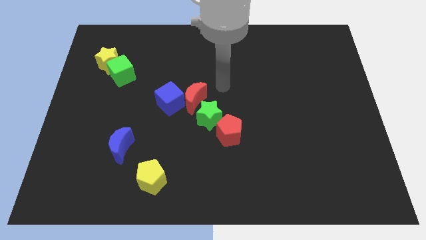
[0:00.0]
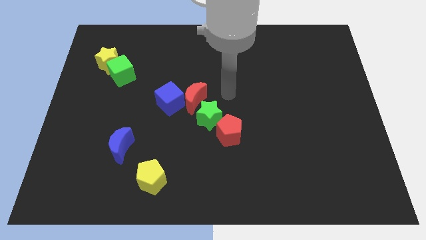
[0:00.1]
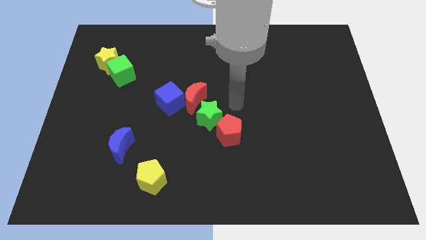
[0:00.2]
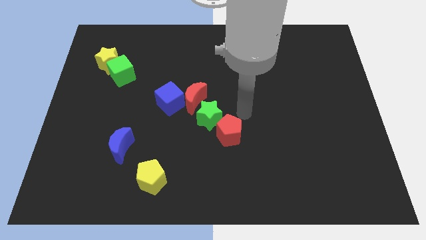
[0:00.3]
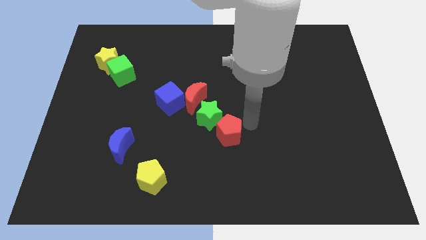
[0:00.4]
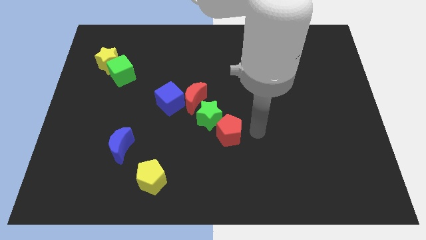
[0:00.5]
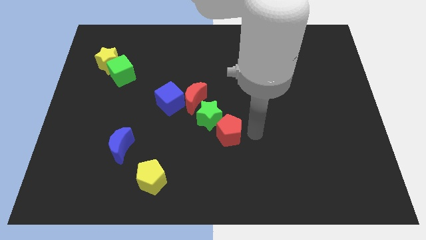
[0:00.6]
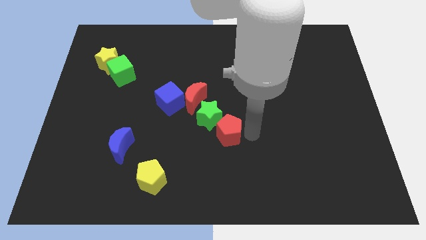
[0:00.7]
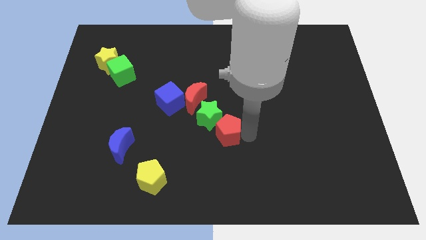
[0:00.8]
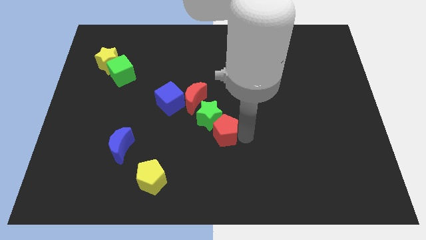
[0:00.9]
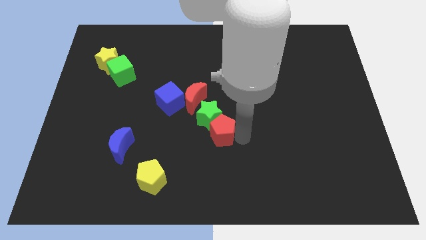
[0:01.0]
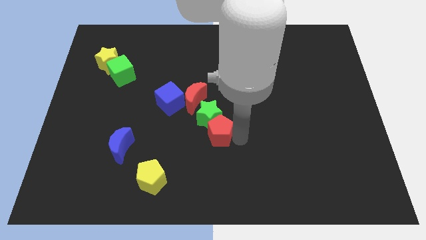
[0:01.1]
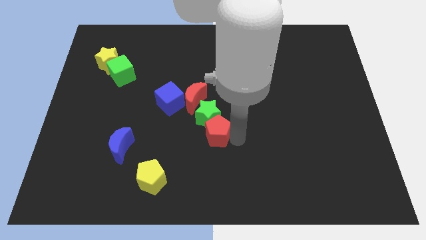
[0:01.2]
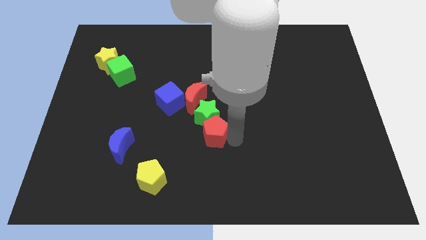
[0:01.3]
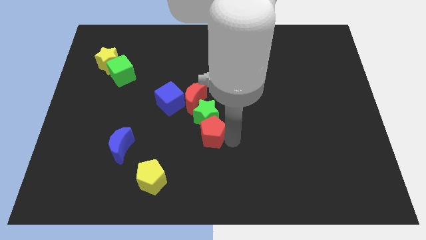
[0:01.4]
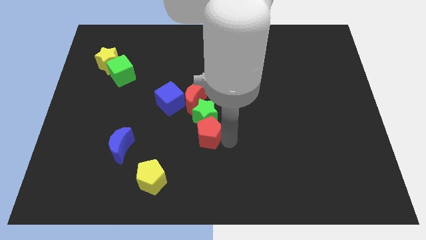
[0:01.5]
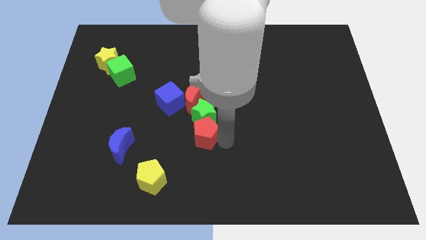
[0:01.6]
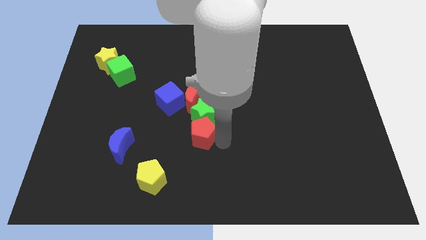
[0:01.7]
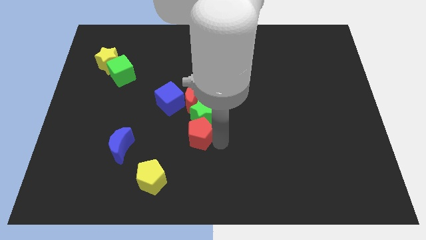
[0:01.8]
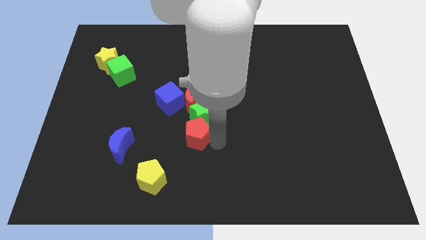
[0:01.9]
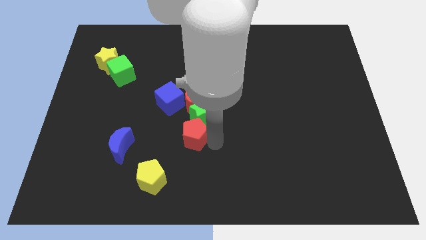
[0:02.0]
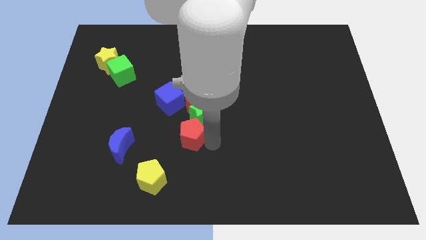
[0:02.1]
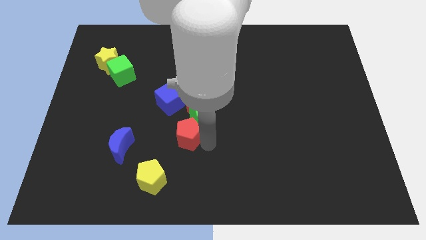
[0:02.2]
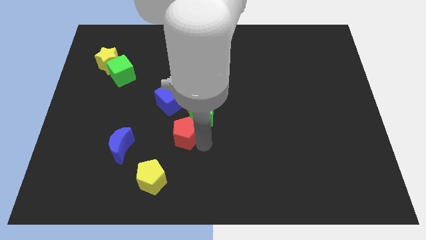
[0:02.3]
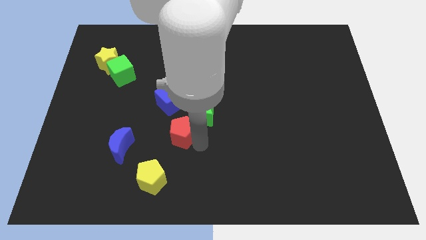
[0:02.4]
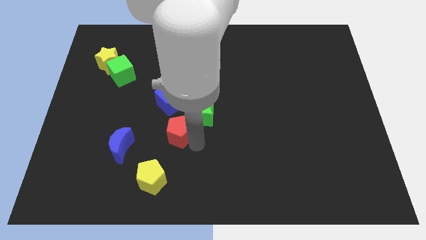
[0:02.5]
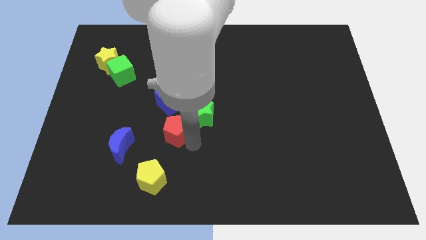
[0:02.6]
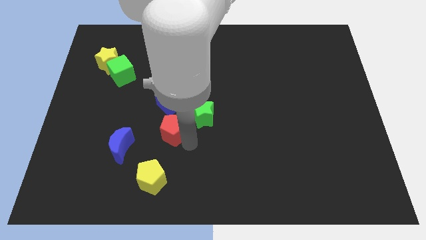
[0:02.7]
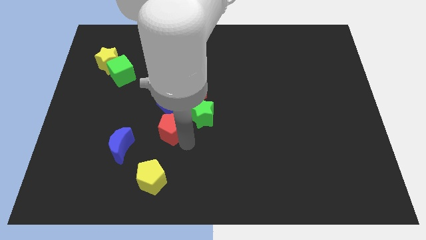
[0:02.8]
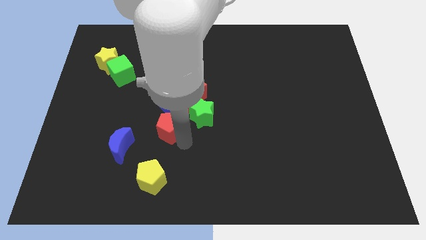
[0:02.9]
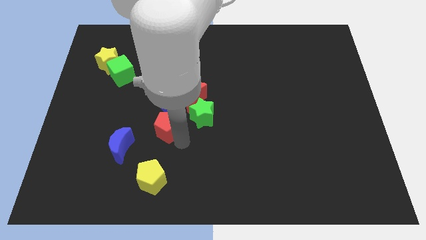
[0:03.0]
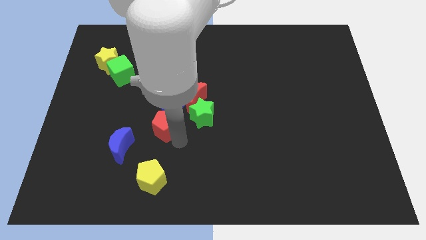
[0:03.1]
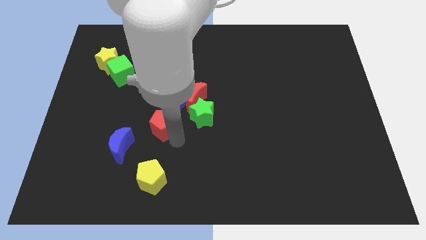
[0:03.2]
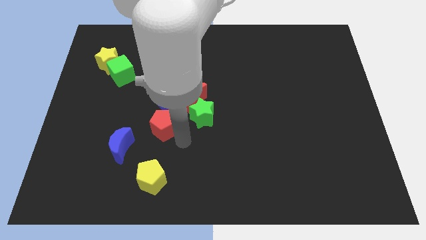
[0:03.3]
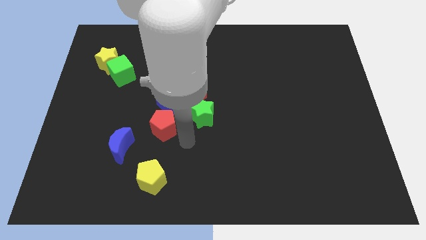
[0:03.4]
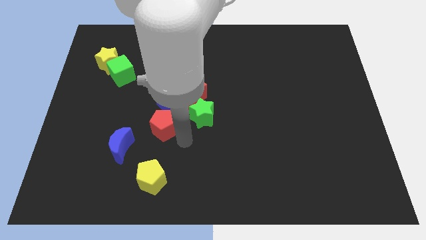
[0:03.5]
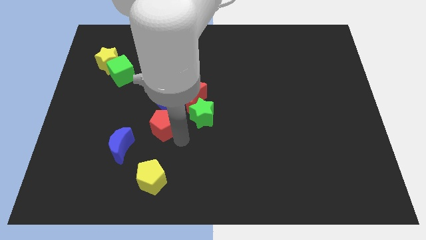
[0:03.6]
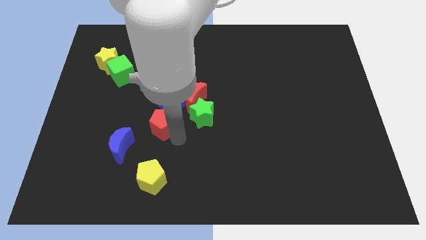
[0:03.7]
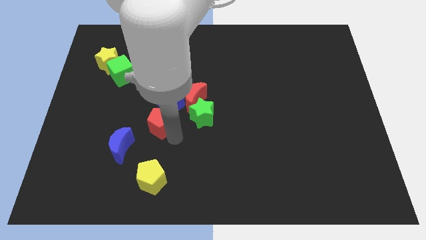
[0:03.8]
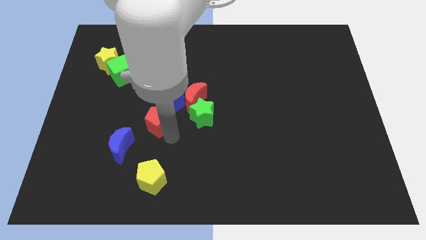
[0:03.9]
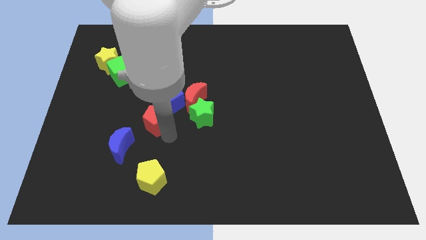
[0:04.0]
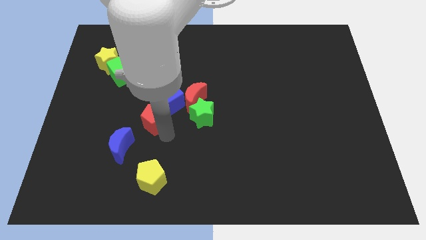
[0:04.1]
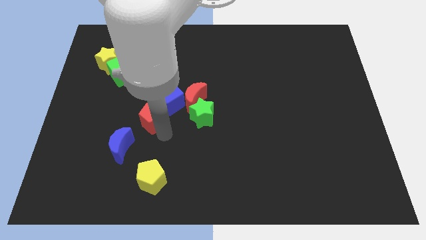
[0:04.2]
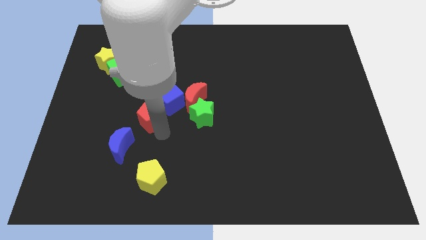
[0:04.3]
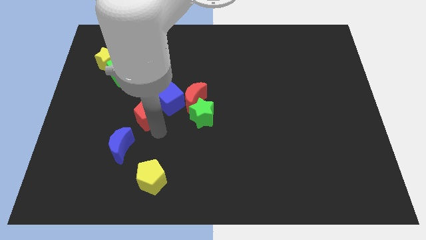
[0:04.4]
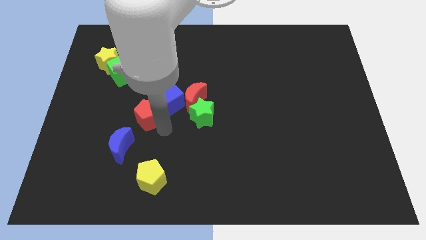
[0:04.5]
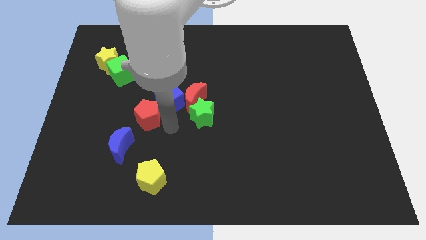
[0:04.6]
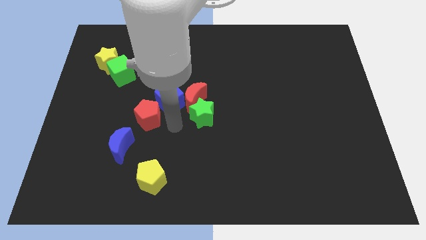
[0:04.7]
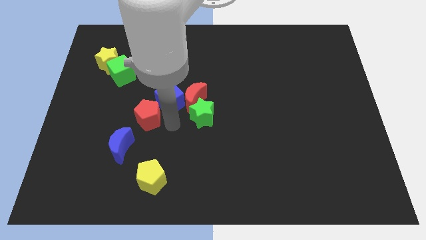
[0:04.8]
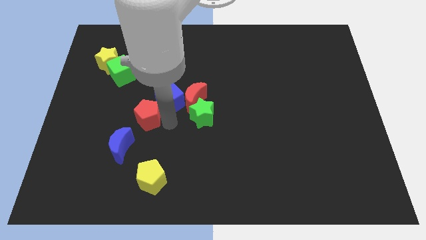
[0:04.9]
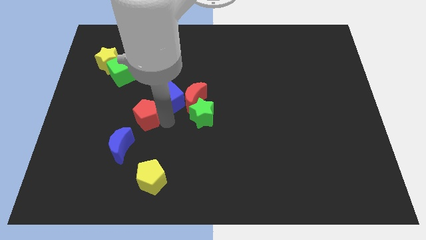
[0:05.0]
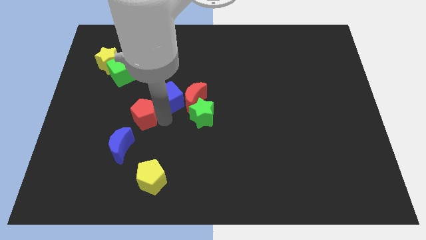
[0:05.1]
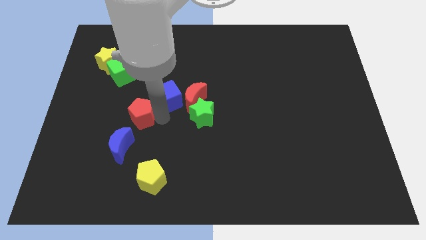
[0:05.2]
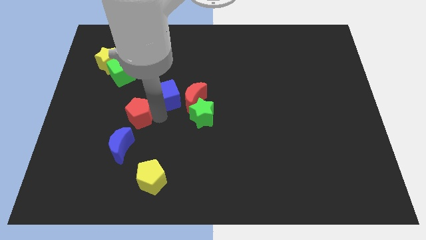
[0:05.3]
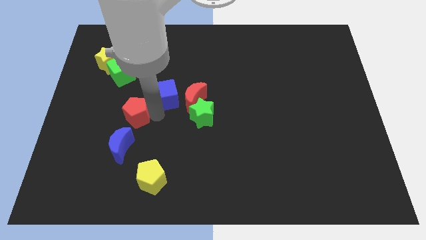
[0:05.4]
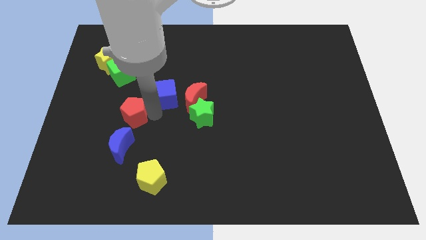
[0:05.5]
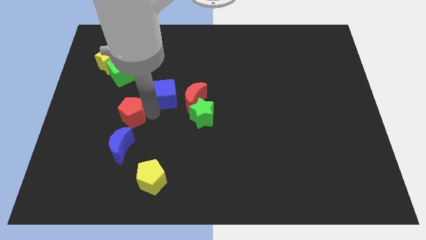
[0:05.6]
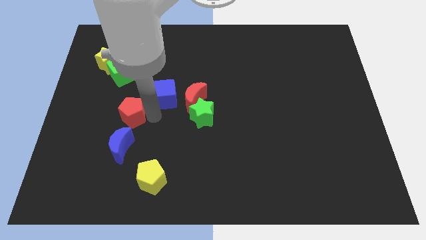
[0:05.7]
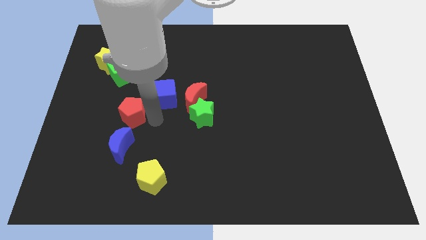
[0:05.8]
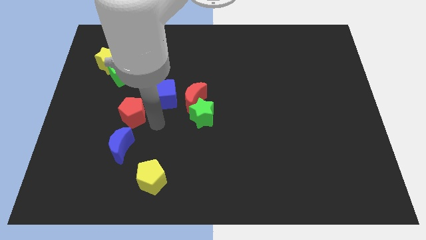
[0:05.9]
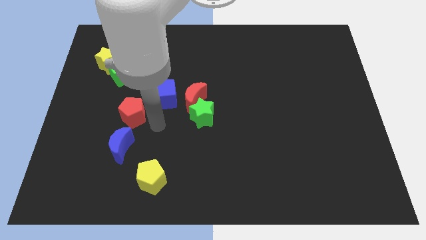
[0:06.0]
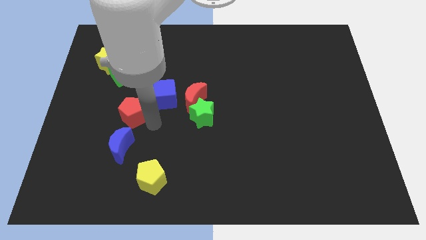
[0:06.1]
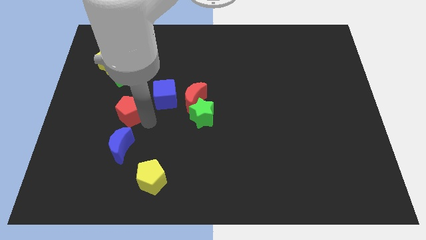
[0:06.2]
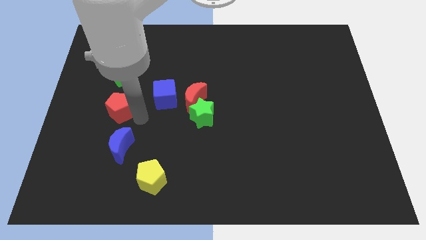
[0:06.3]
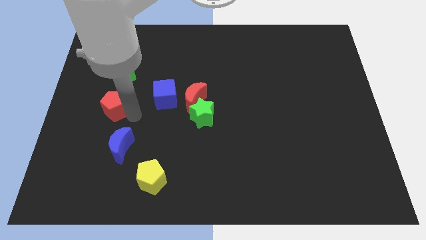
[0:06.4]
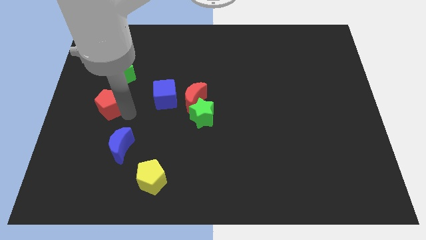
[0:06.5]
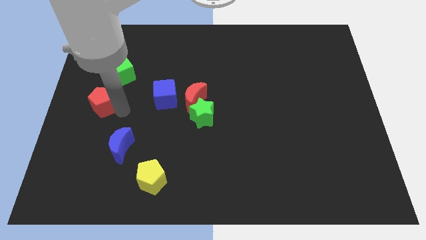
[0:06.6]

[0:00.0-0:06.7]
move the red pentagon to the center left

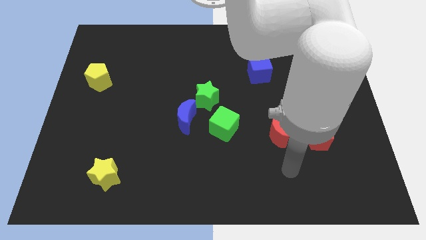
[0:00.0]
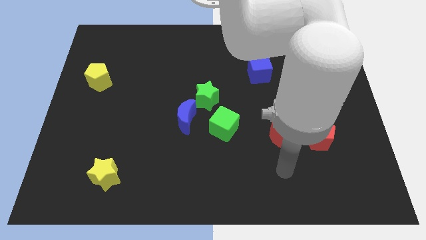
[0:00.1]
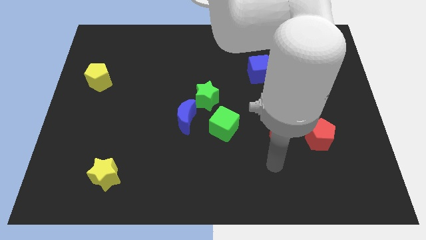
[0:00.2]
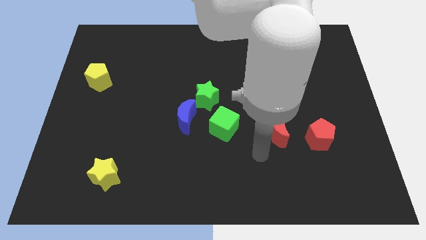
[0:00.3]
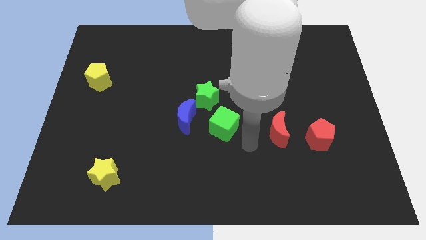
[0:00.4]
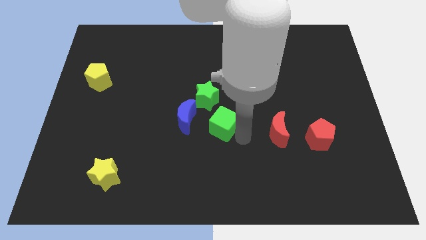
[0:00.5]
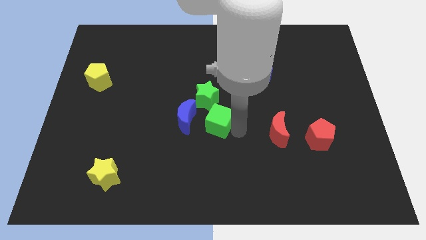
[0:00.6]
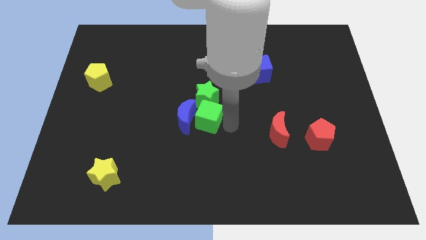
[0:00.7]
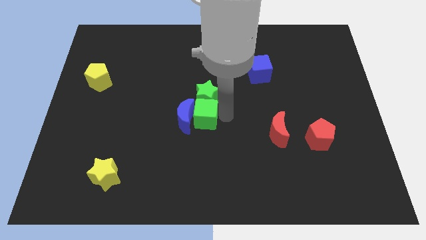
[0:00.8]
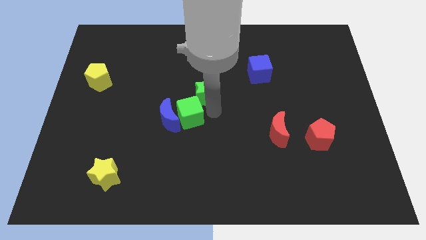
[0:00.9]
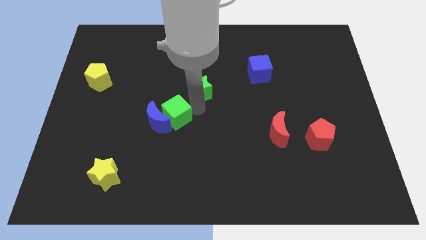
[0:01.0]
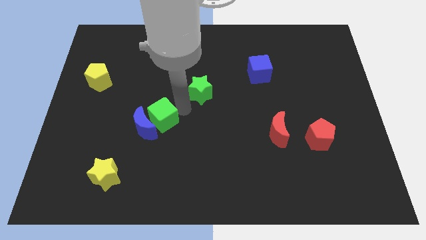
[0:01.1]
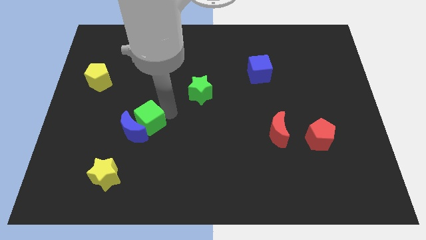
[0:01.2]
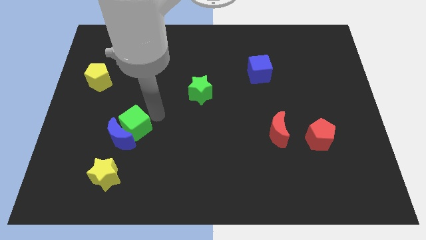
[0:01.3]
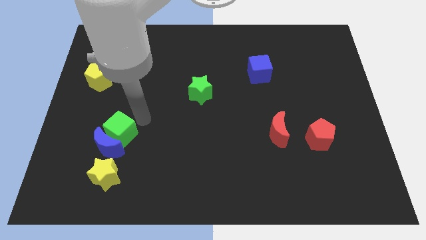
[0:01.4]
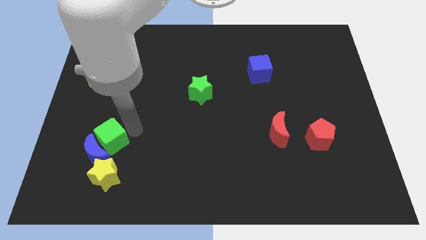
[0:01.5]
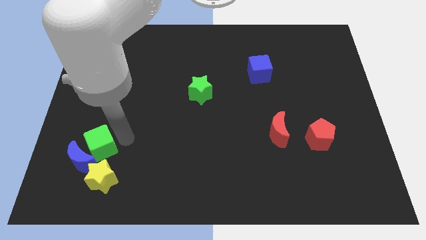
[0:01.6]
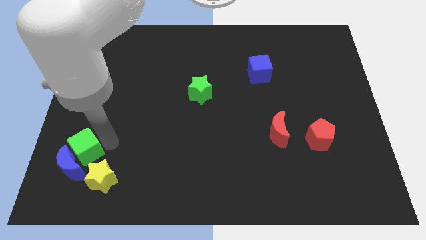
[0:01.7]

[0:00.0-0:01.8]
move the blue moon to the lower left corner
